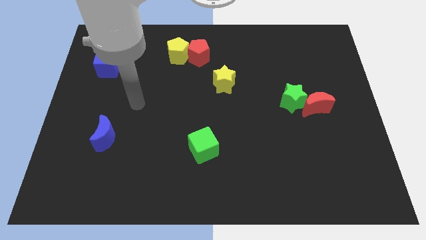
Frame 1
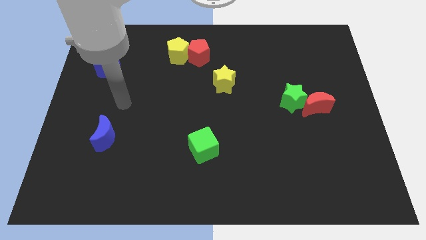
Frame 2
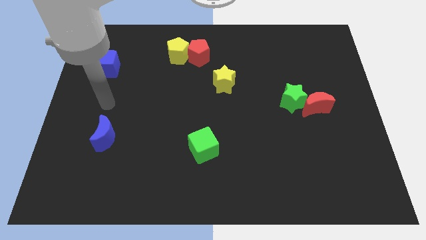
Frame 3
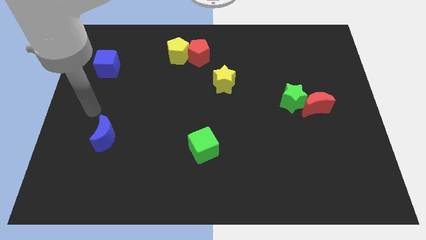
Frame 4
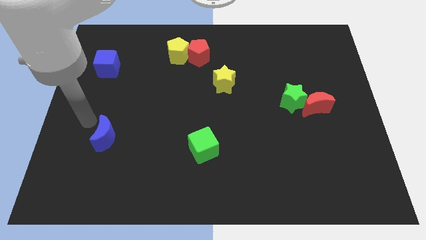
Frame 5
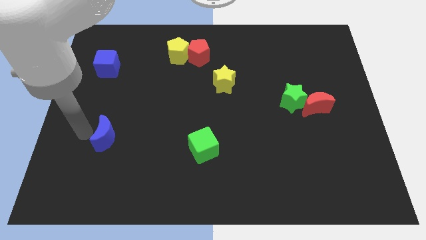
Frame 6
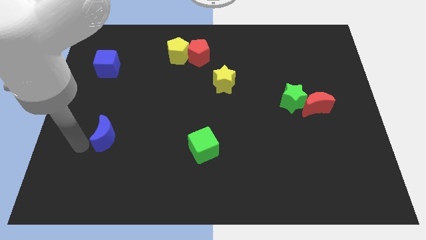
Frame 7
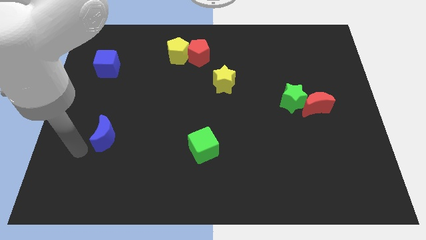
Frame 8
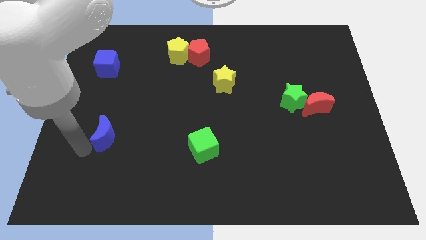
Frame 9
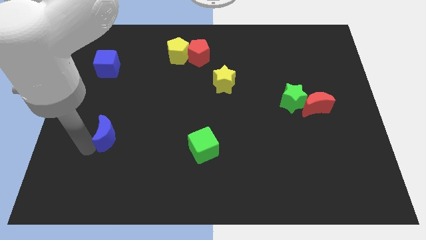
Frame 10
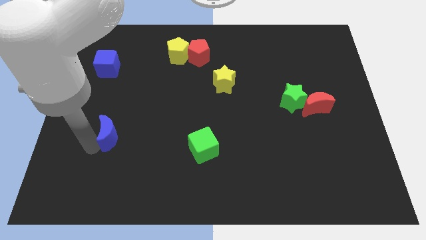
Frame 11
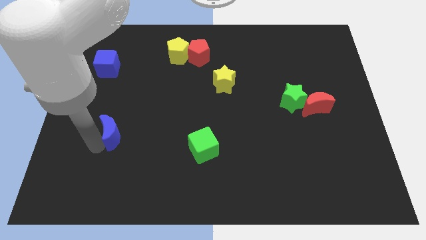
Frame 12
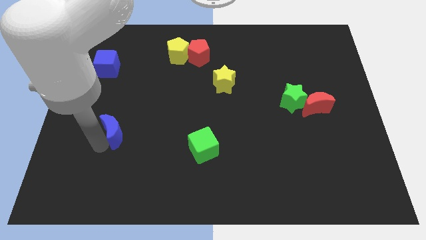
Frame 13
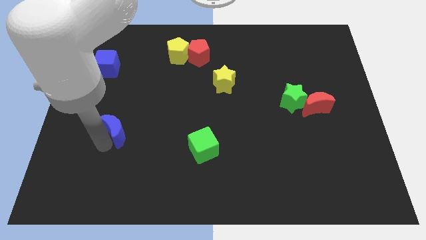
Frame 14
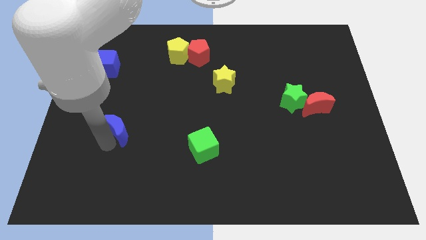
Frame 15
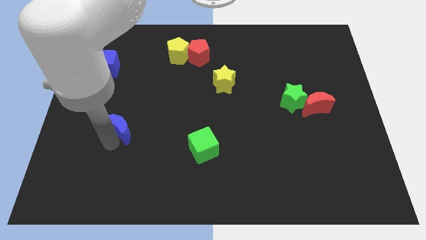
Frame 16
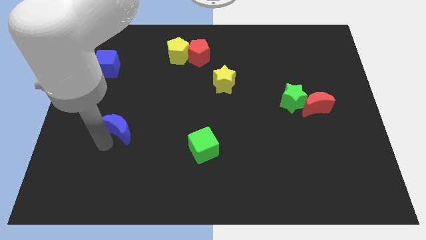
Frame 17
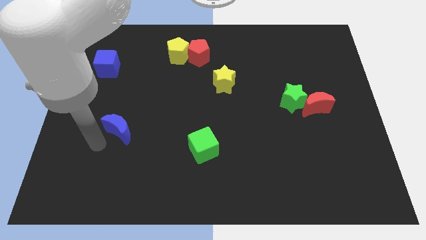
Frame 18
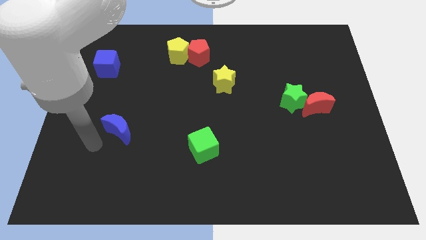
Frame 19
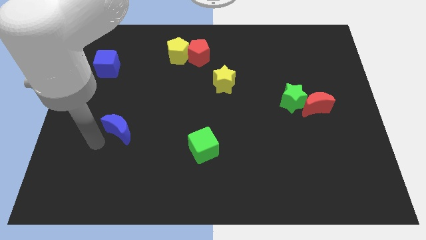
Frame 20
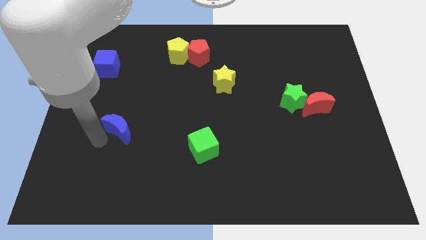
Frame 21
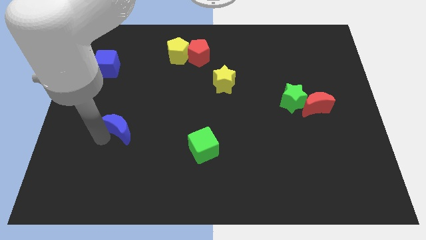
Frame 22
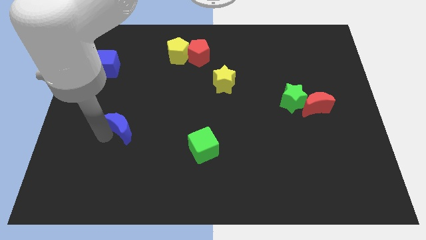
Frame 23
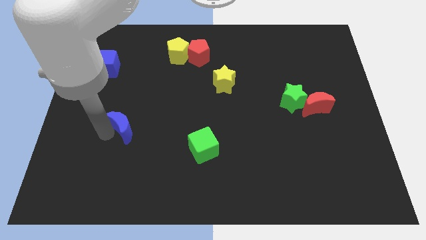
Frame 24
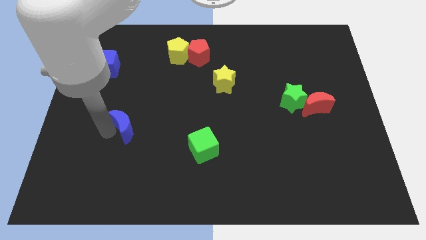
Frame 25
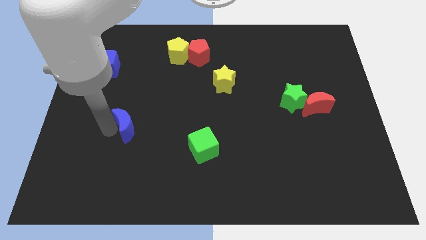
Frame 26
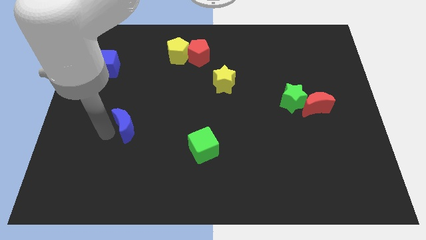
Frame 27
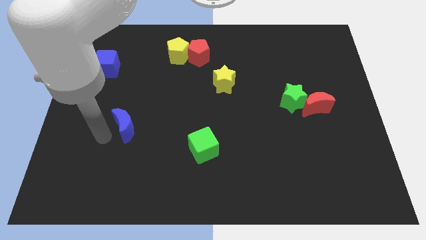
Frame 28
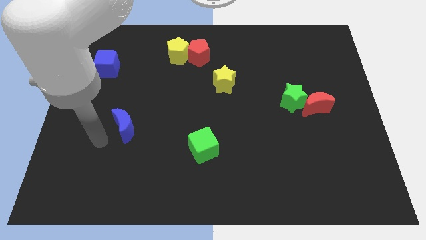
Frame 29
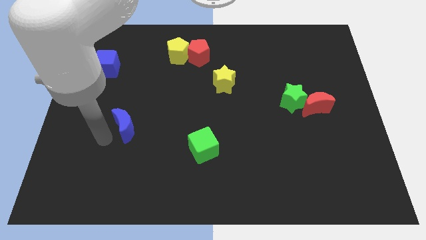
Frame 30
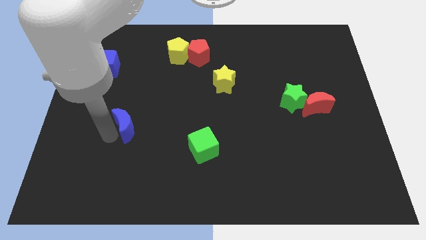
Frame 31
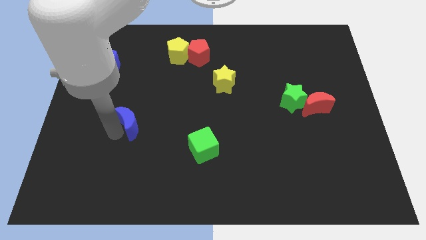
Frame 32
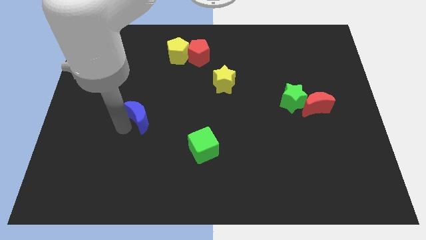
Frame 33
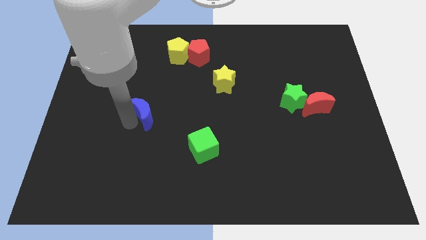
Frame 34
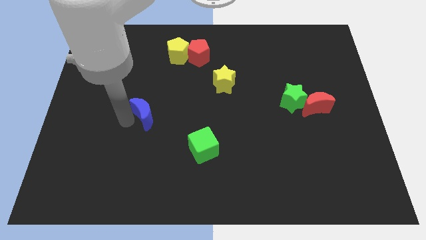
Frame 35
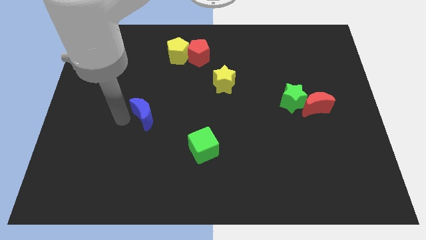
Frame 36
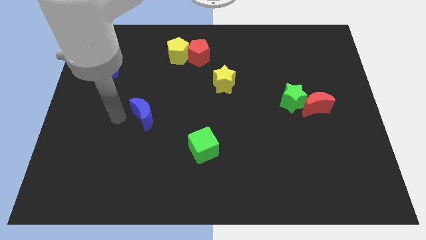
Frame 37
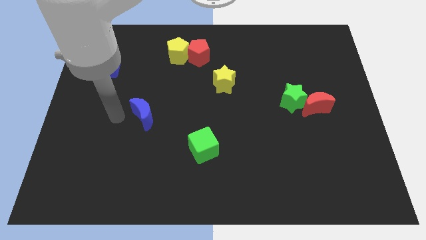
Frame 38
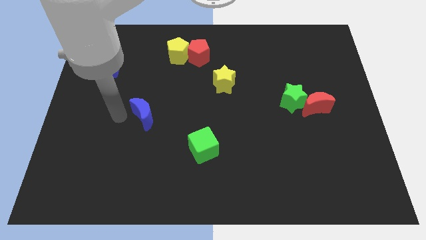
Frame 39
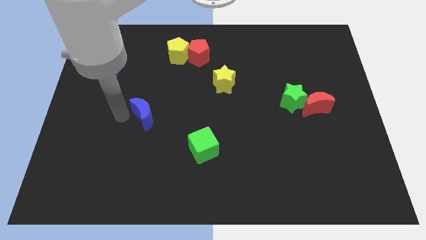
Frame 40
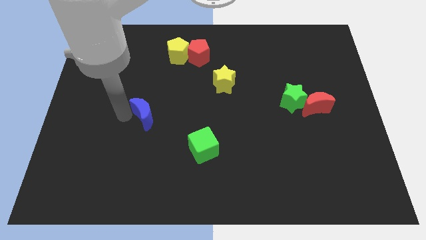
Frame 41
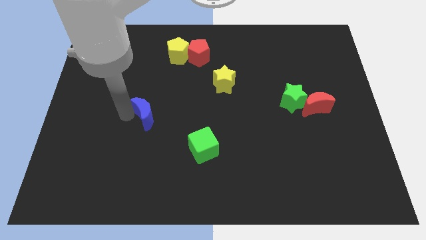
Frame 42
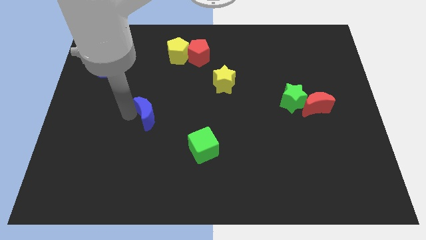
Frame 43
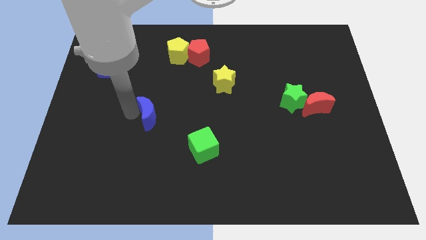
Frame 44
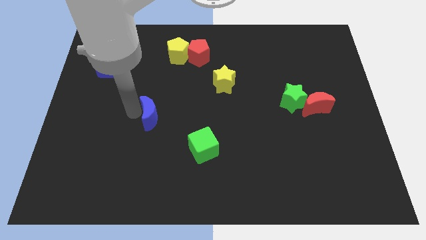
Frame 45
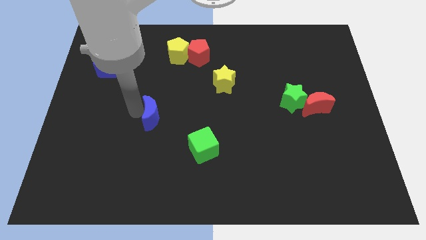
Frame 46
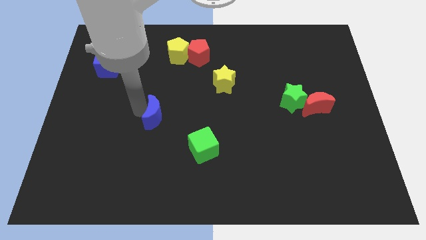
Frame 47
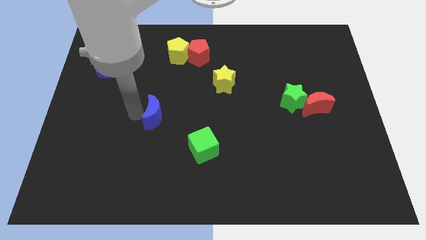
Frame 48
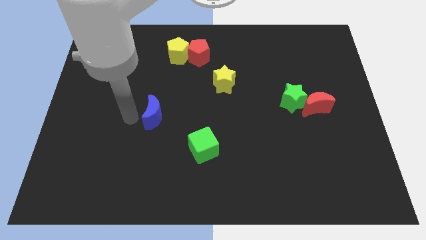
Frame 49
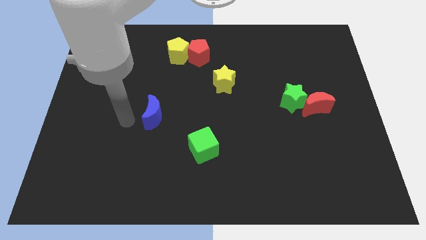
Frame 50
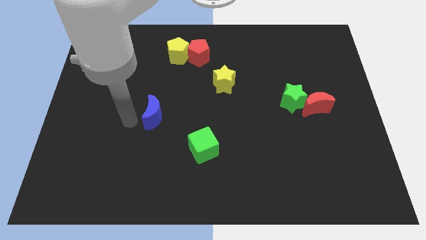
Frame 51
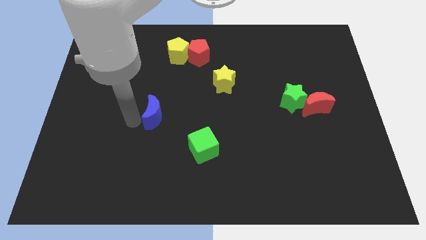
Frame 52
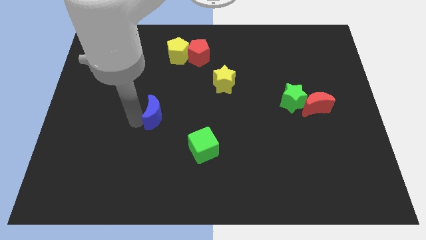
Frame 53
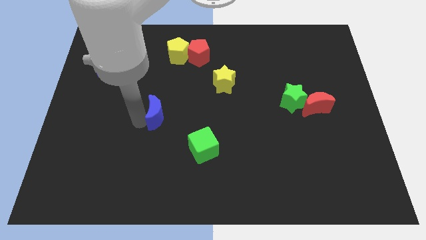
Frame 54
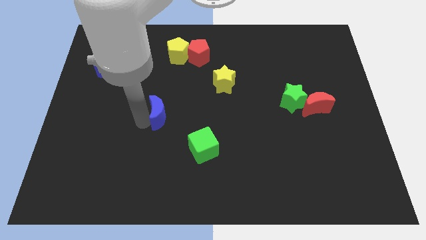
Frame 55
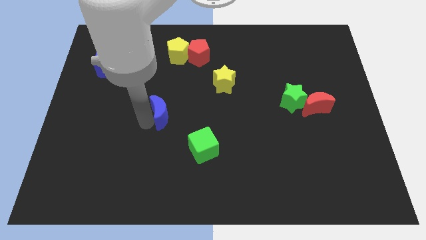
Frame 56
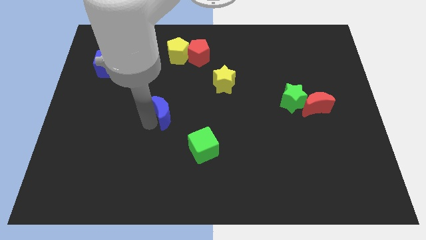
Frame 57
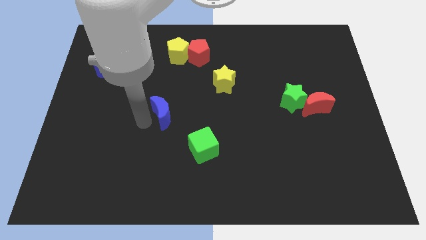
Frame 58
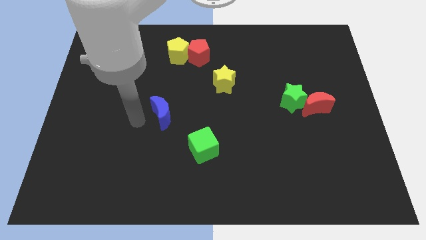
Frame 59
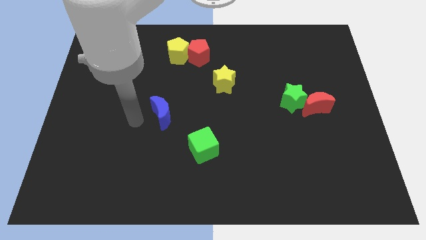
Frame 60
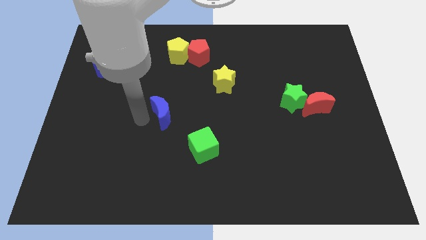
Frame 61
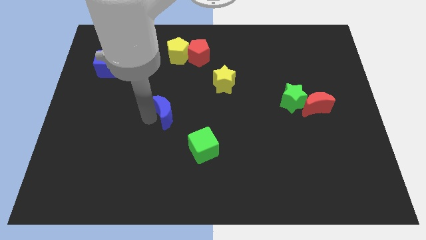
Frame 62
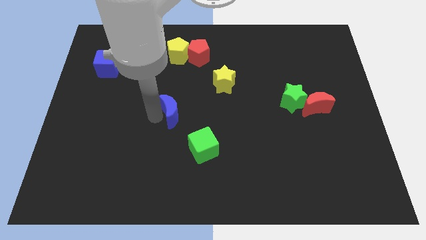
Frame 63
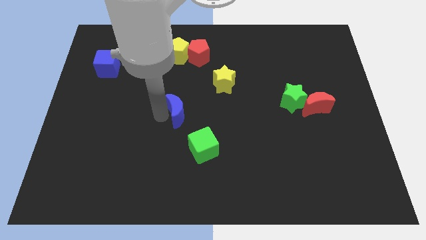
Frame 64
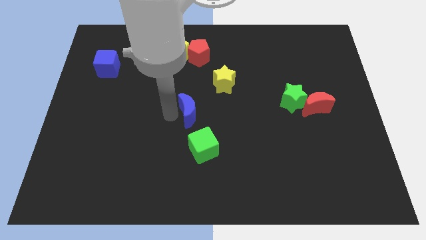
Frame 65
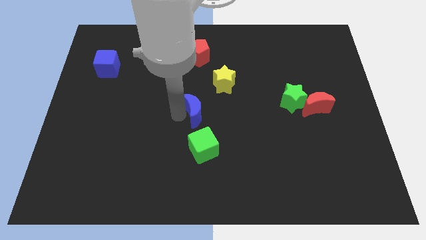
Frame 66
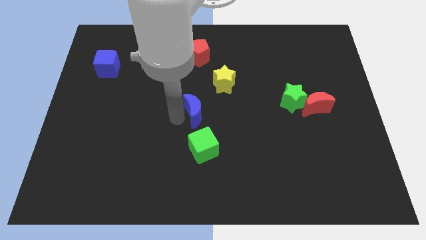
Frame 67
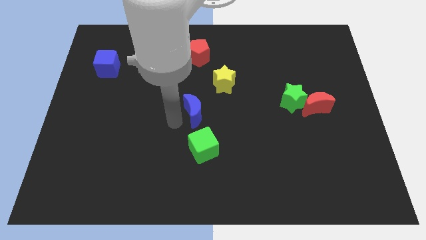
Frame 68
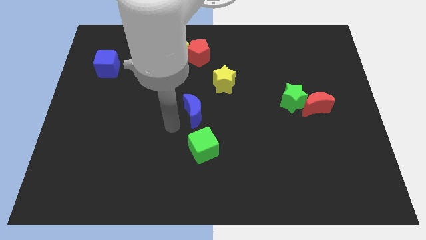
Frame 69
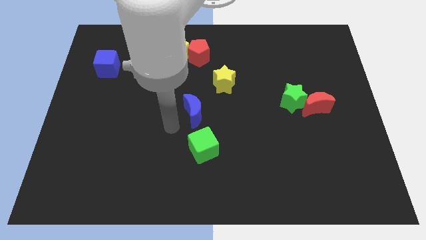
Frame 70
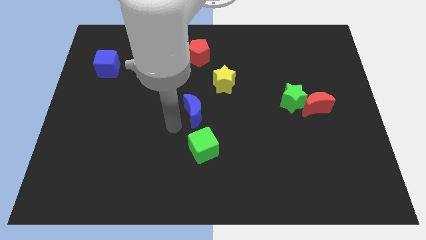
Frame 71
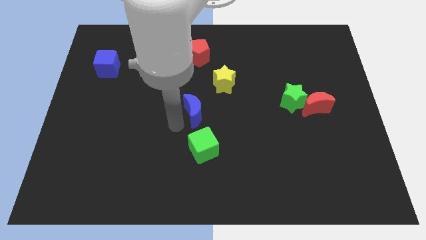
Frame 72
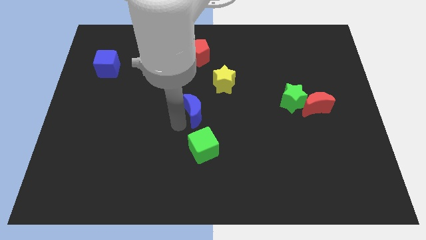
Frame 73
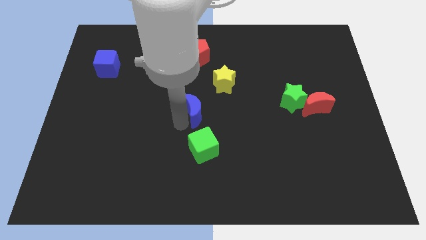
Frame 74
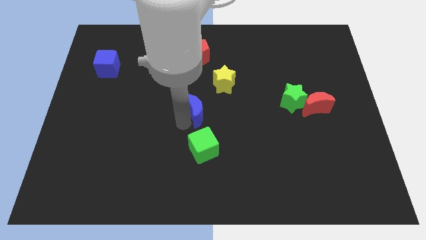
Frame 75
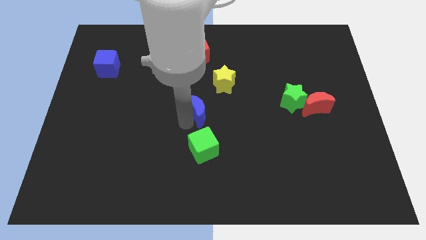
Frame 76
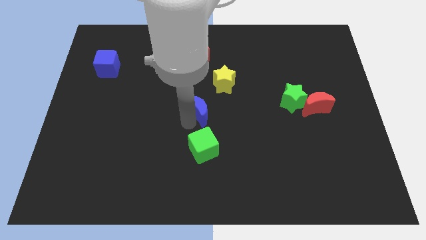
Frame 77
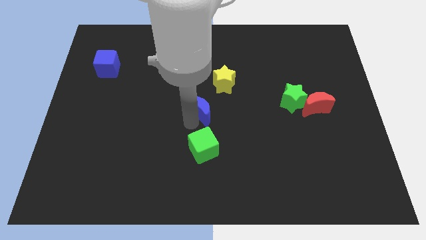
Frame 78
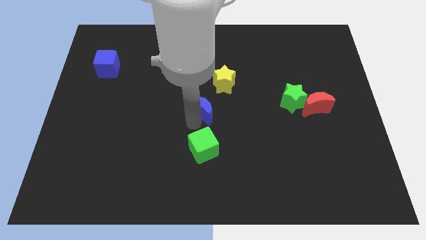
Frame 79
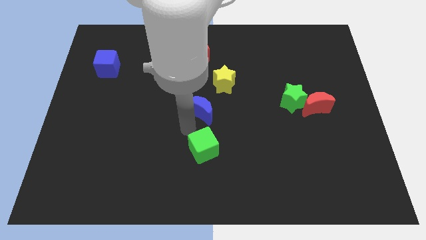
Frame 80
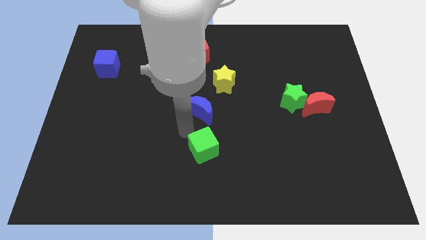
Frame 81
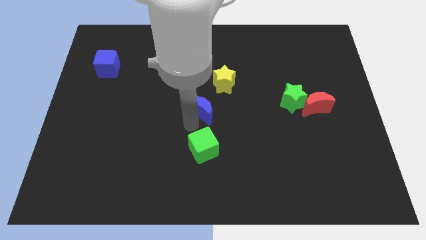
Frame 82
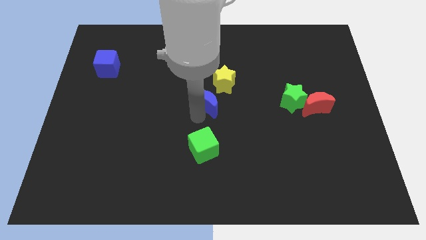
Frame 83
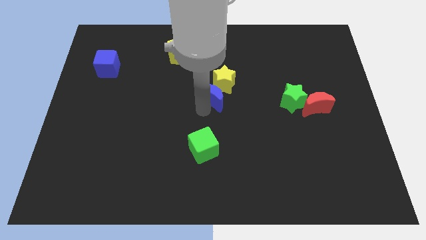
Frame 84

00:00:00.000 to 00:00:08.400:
put the blue moon towards the yellow star
